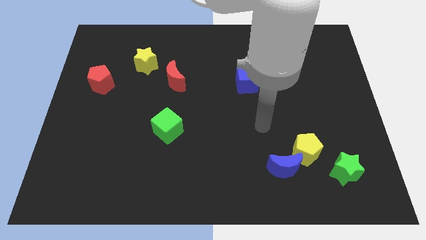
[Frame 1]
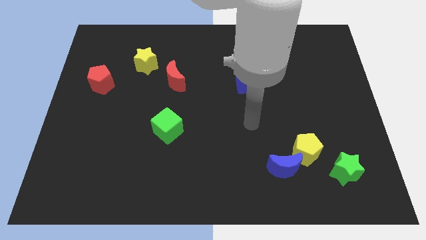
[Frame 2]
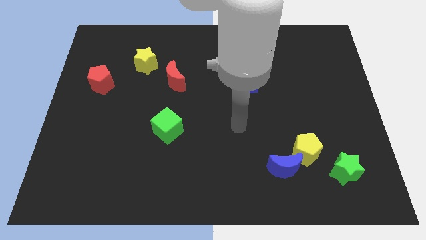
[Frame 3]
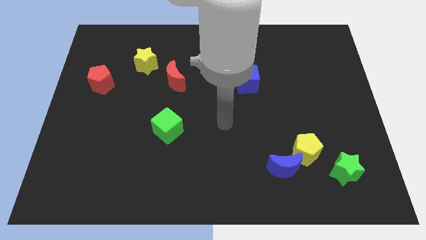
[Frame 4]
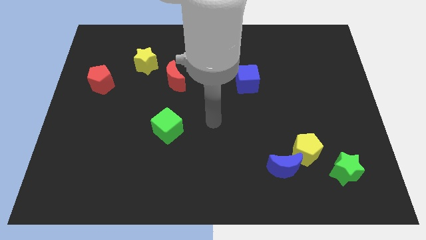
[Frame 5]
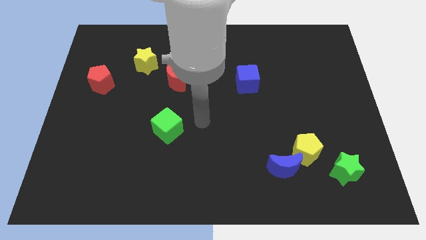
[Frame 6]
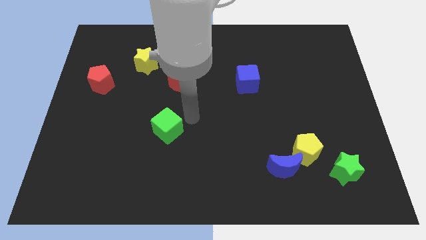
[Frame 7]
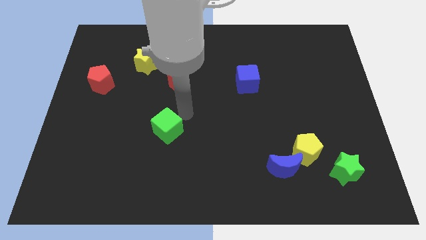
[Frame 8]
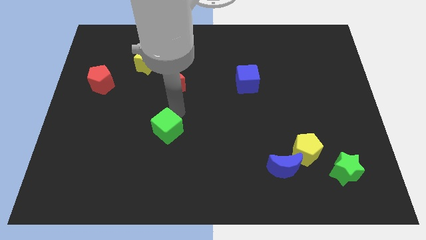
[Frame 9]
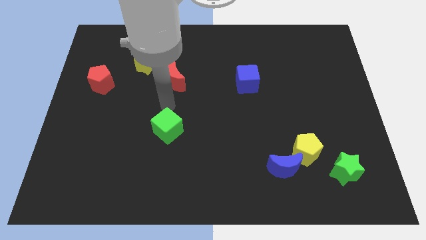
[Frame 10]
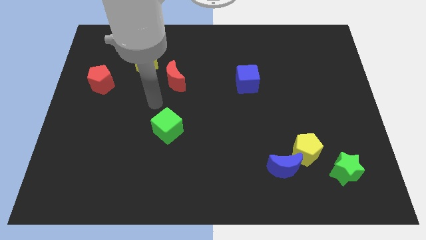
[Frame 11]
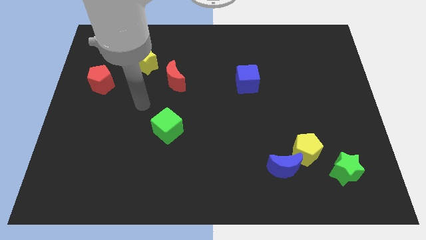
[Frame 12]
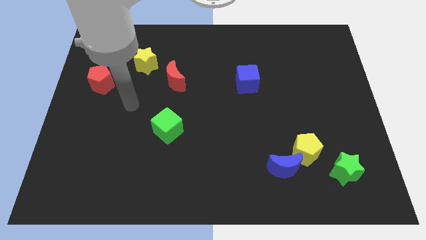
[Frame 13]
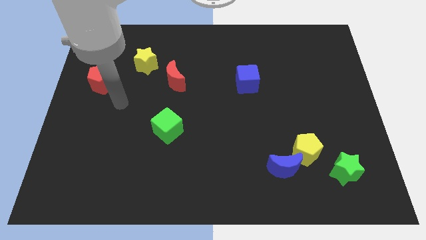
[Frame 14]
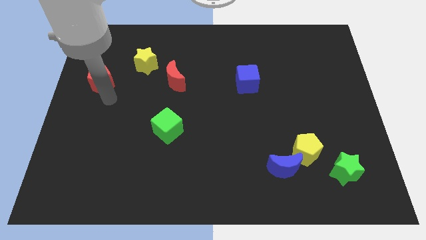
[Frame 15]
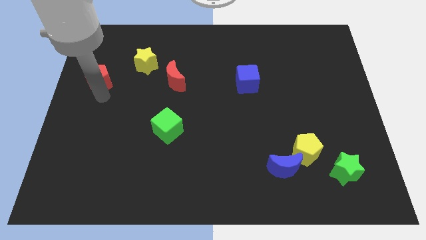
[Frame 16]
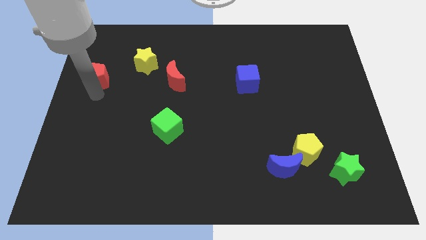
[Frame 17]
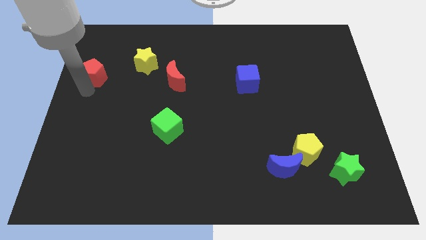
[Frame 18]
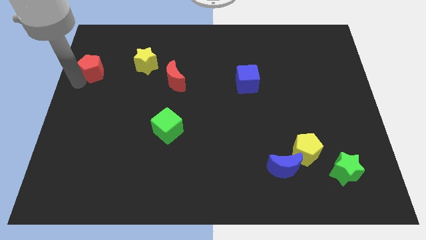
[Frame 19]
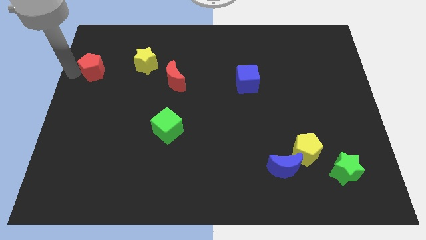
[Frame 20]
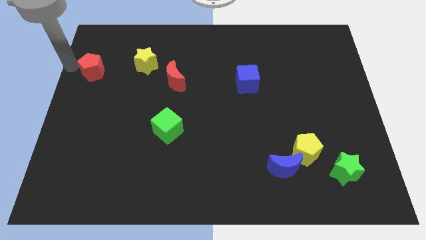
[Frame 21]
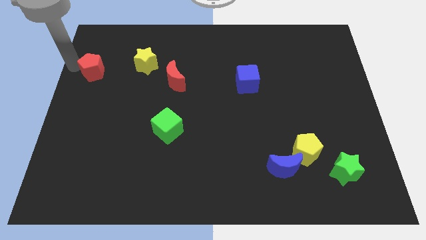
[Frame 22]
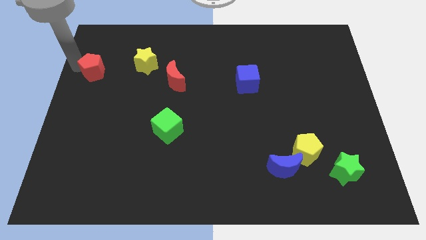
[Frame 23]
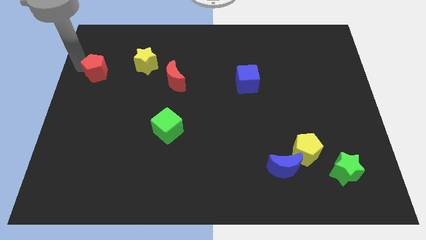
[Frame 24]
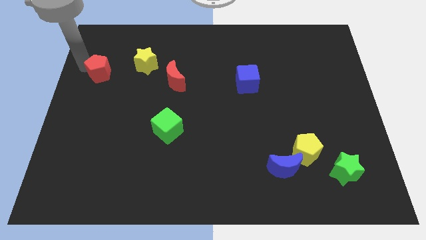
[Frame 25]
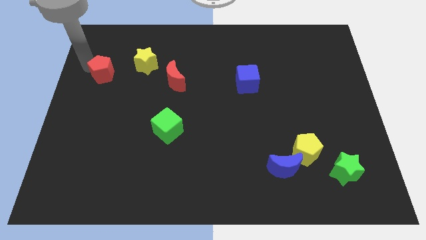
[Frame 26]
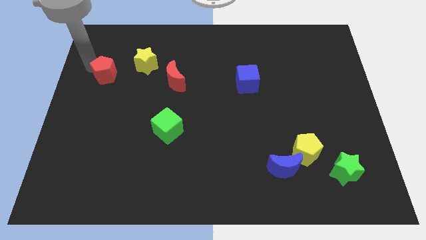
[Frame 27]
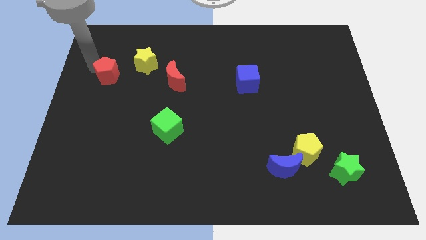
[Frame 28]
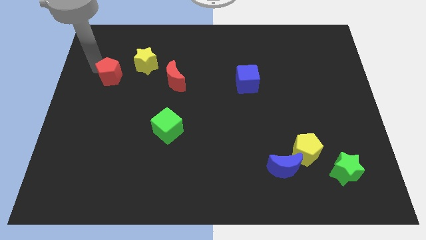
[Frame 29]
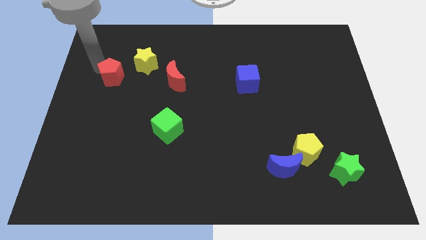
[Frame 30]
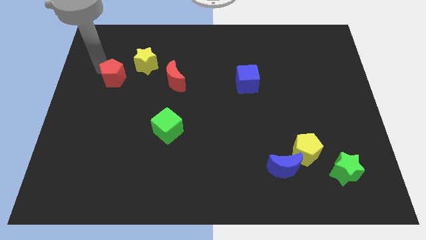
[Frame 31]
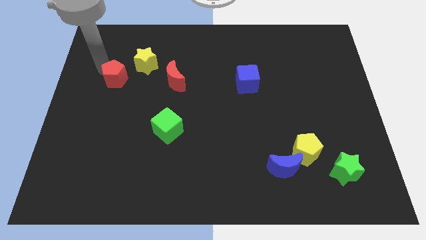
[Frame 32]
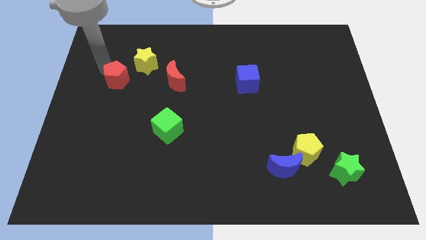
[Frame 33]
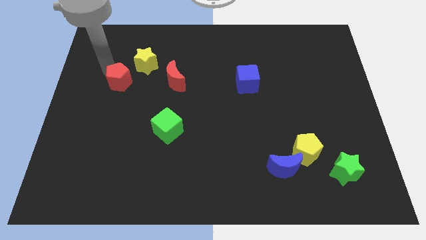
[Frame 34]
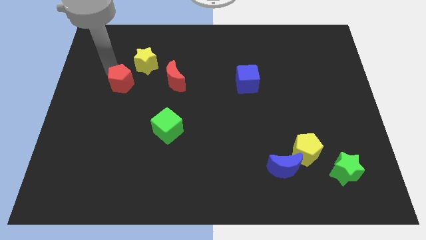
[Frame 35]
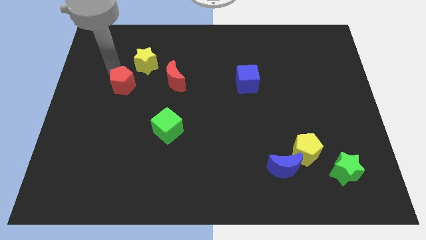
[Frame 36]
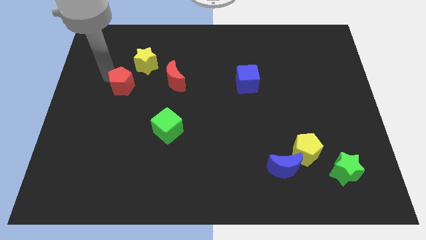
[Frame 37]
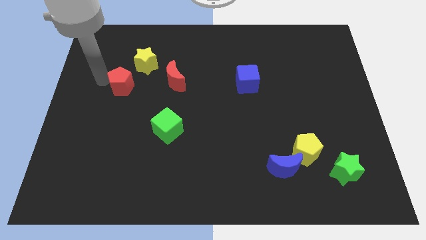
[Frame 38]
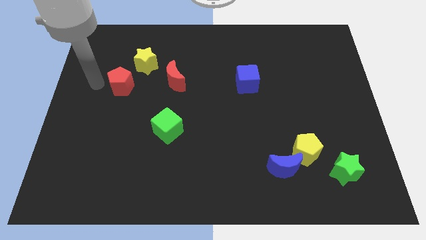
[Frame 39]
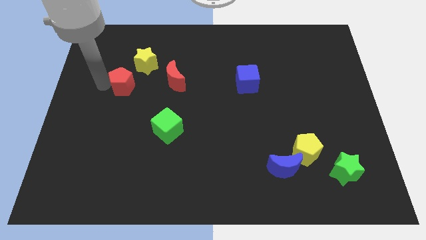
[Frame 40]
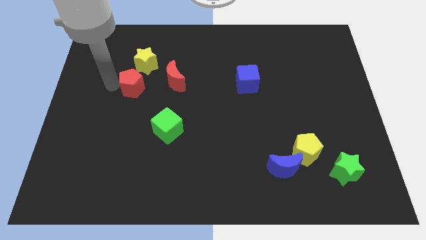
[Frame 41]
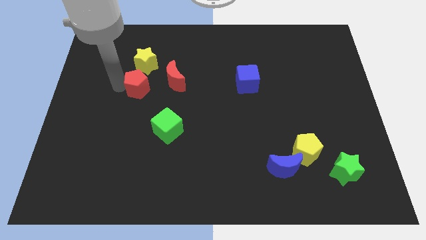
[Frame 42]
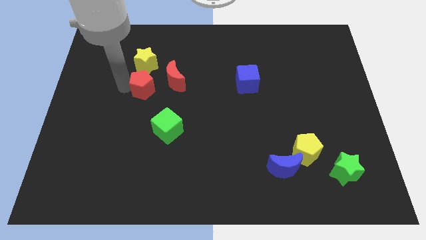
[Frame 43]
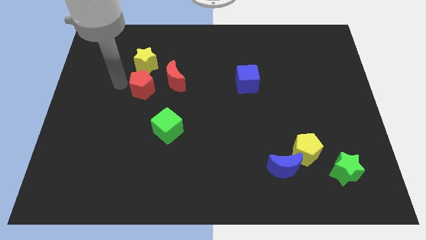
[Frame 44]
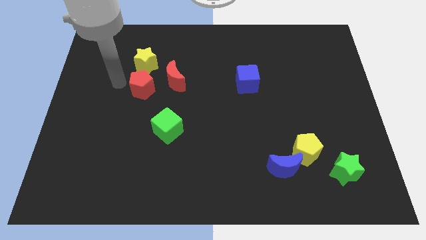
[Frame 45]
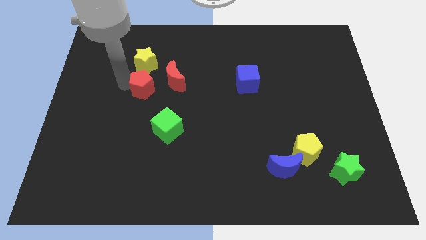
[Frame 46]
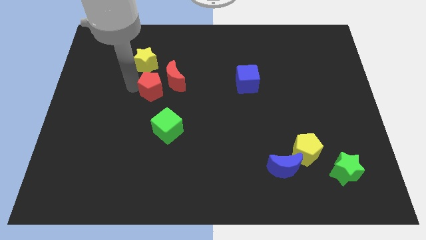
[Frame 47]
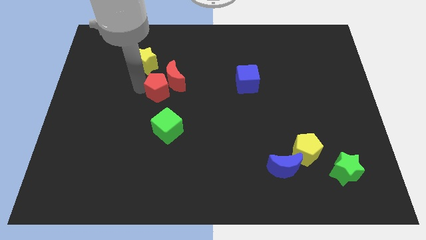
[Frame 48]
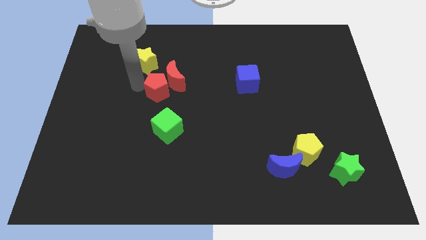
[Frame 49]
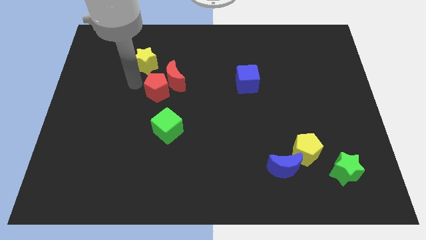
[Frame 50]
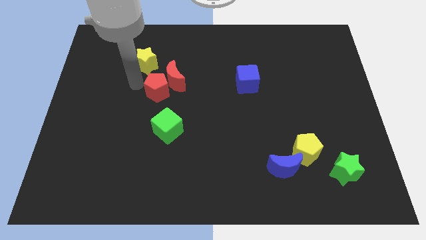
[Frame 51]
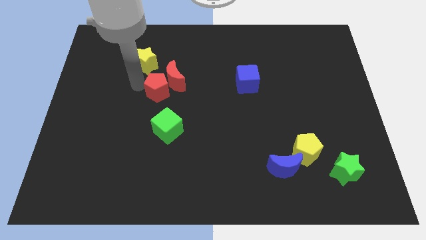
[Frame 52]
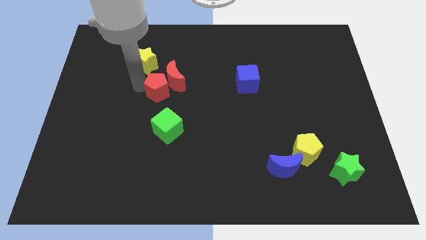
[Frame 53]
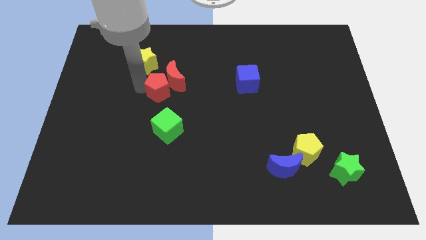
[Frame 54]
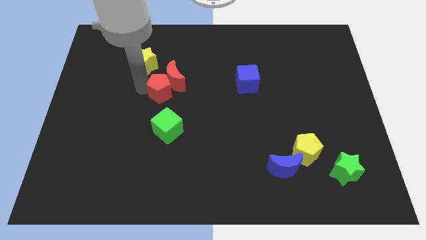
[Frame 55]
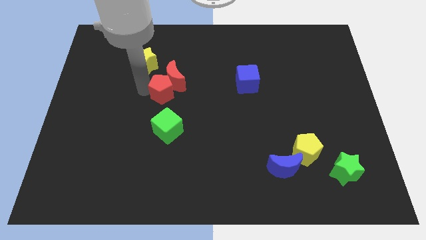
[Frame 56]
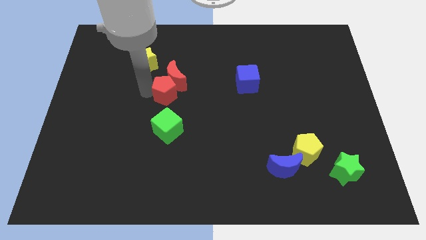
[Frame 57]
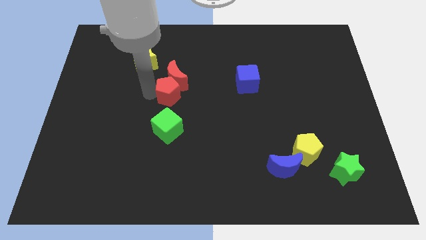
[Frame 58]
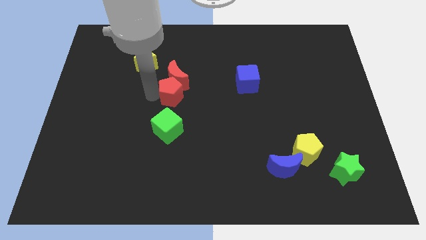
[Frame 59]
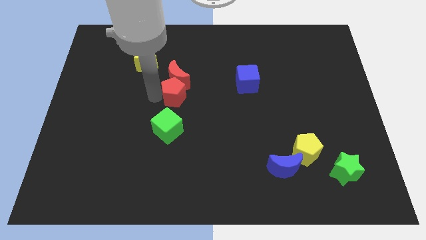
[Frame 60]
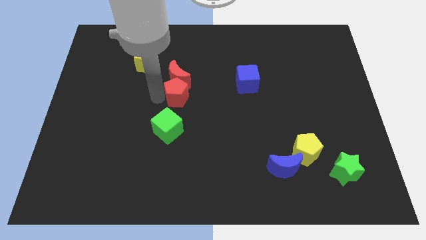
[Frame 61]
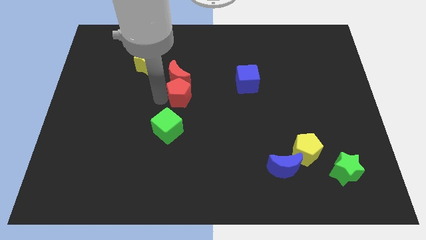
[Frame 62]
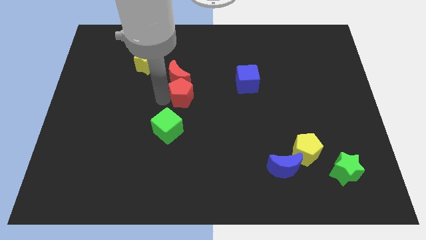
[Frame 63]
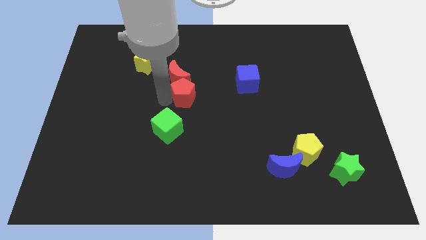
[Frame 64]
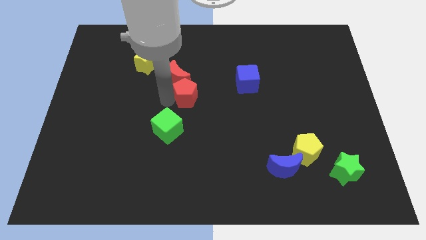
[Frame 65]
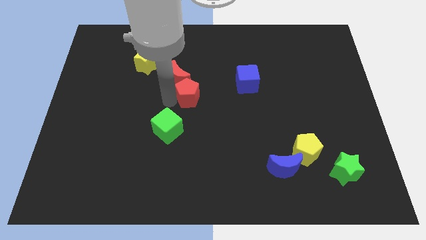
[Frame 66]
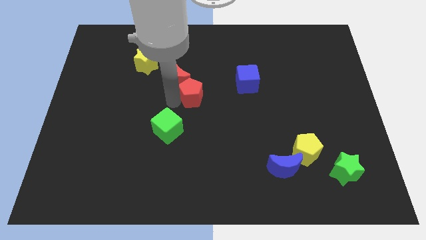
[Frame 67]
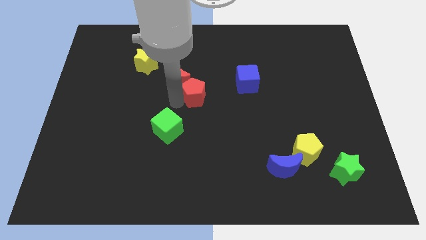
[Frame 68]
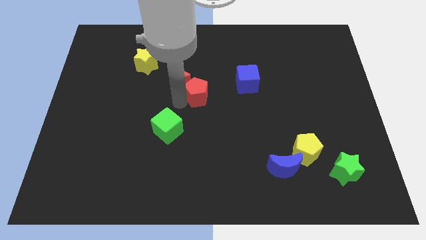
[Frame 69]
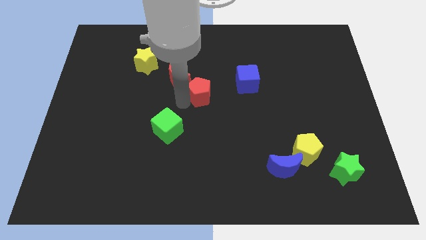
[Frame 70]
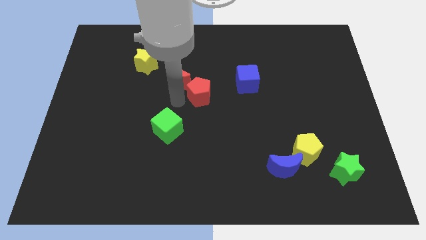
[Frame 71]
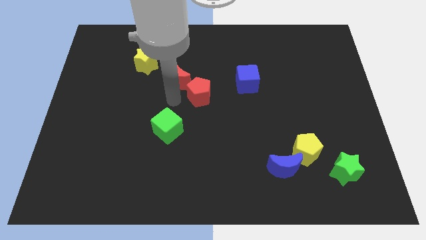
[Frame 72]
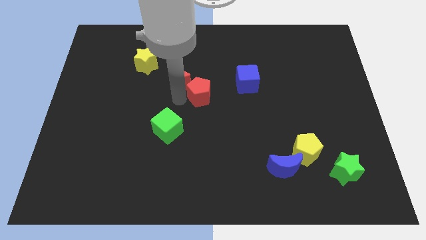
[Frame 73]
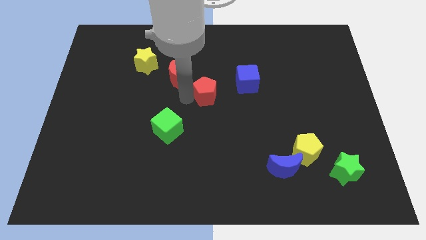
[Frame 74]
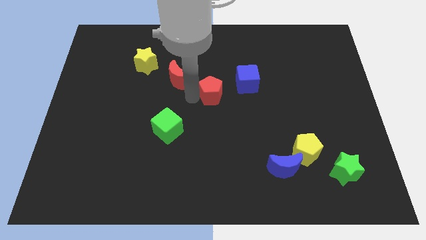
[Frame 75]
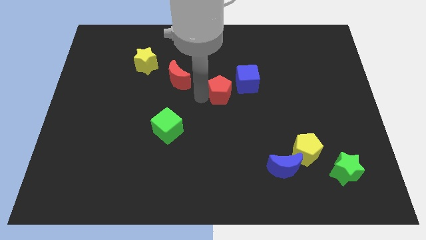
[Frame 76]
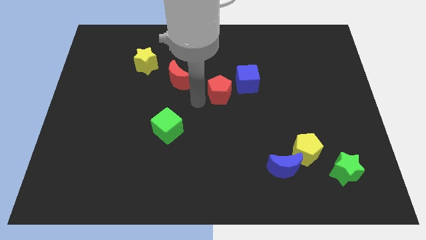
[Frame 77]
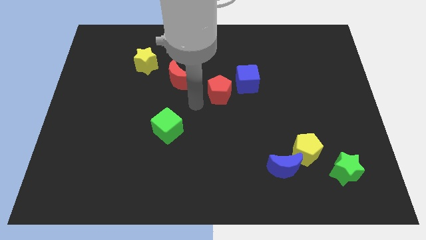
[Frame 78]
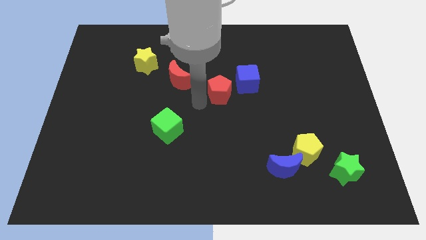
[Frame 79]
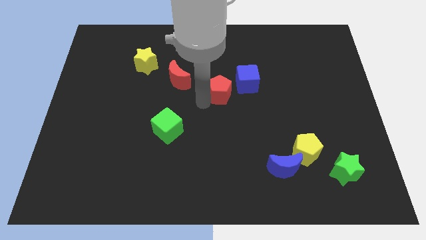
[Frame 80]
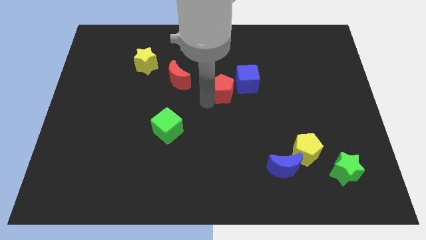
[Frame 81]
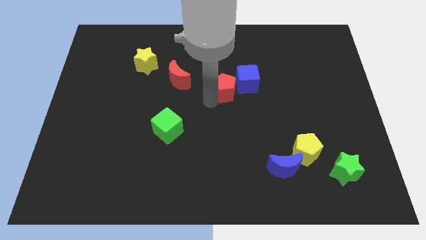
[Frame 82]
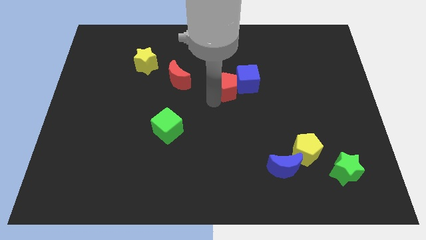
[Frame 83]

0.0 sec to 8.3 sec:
slide the red pentagon next to the blue cube
